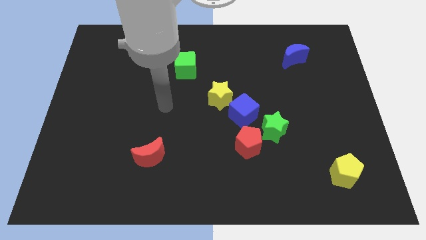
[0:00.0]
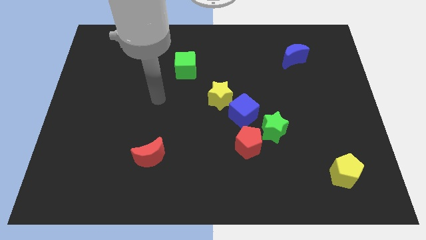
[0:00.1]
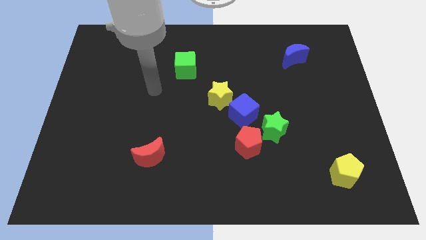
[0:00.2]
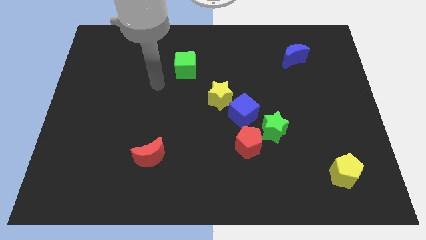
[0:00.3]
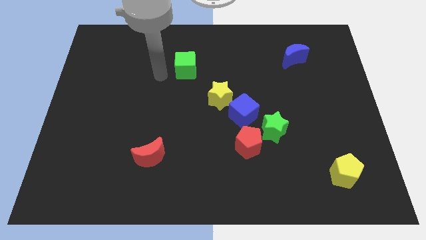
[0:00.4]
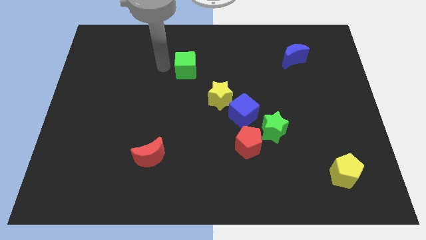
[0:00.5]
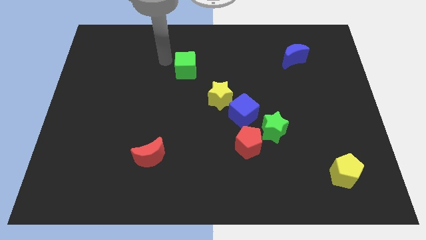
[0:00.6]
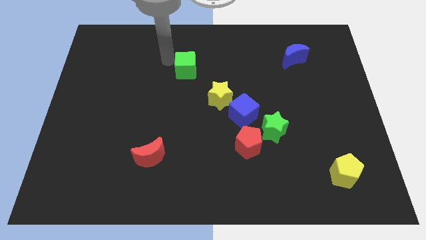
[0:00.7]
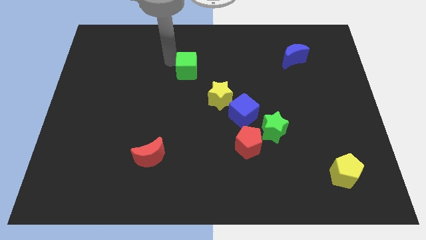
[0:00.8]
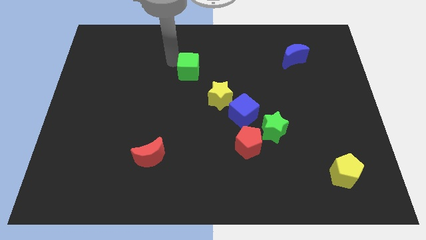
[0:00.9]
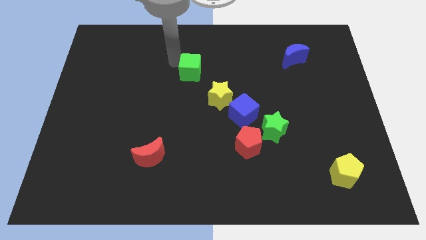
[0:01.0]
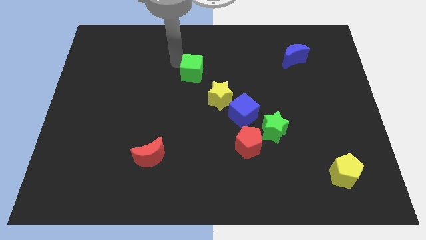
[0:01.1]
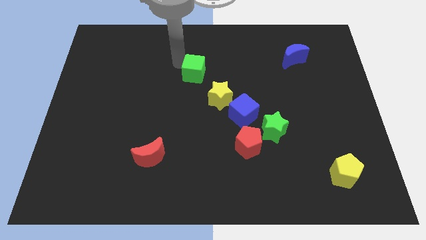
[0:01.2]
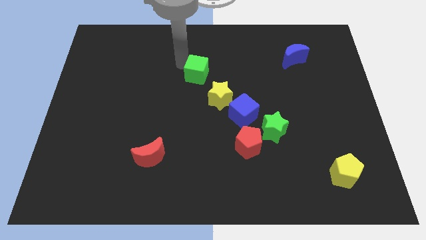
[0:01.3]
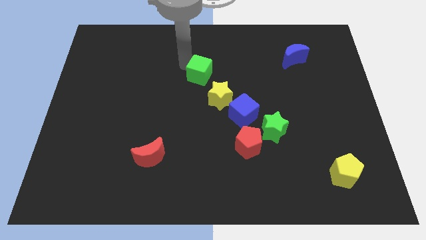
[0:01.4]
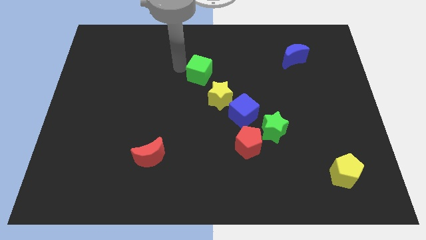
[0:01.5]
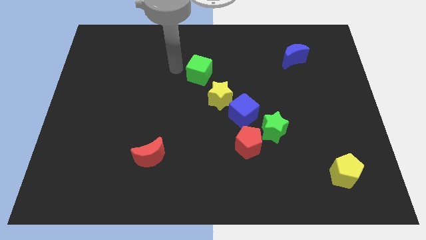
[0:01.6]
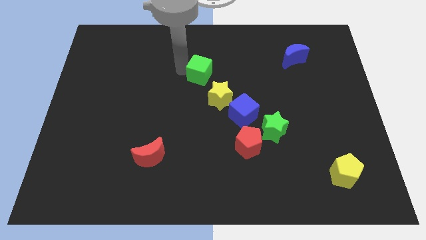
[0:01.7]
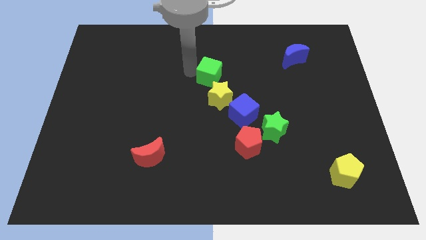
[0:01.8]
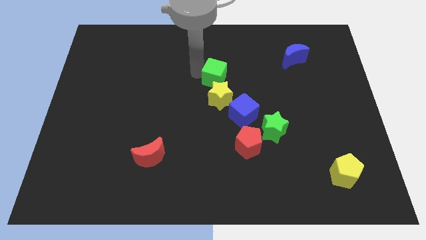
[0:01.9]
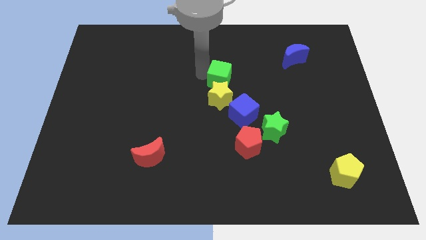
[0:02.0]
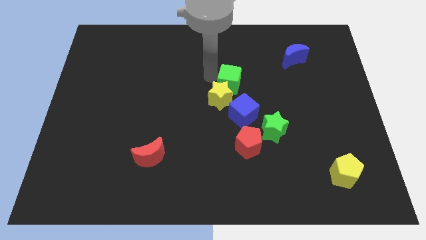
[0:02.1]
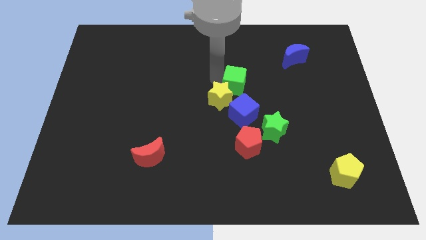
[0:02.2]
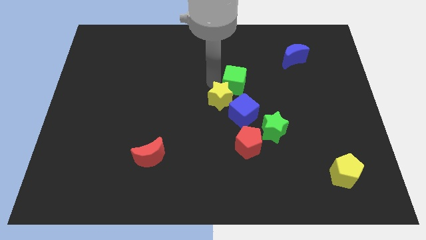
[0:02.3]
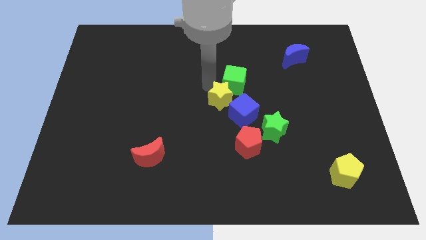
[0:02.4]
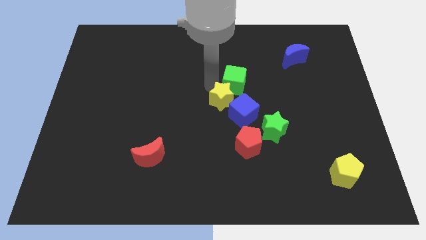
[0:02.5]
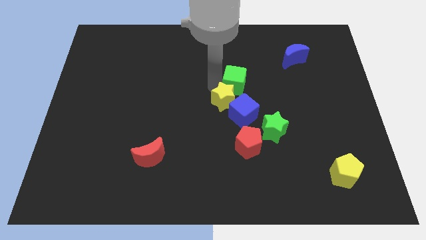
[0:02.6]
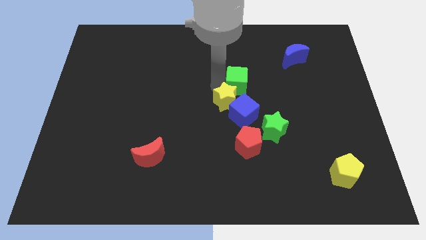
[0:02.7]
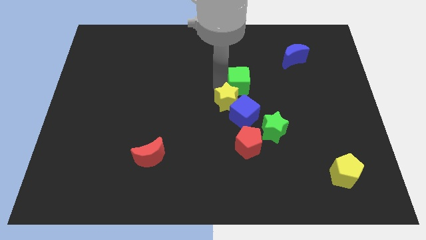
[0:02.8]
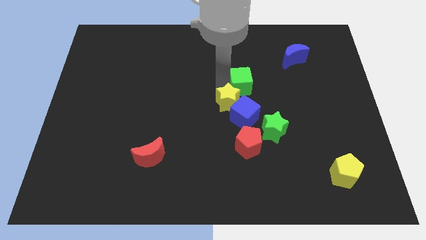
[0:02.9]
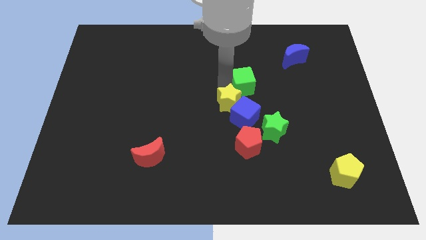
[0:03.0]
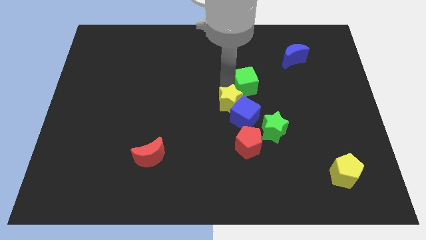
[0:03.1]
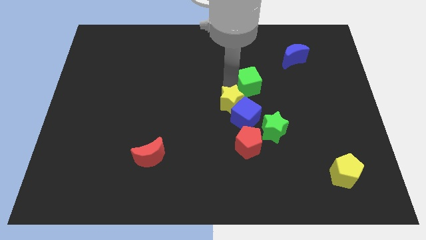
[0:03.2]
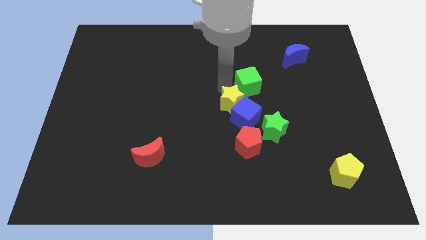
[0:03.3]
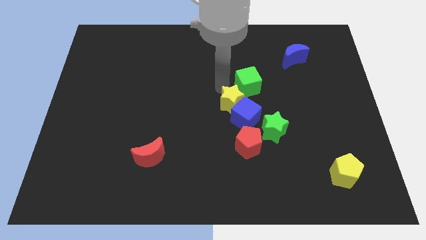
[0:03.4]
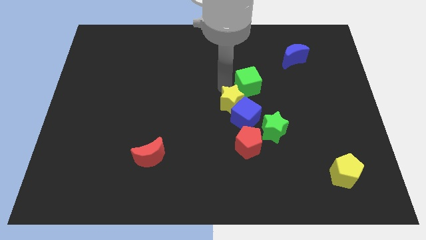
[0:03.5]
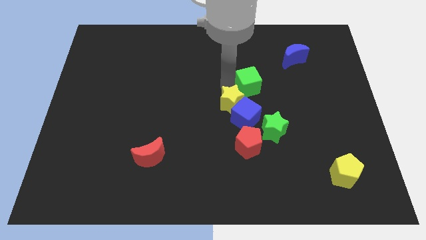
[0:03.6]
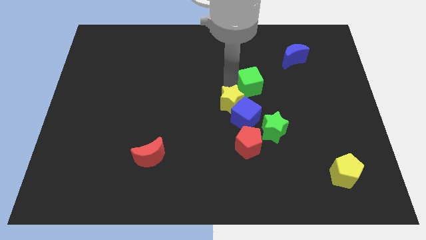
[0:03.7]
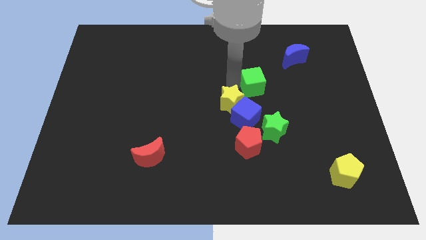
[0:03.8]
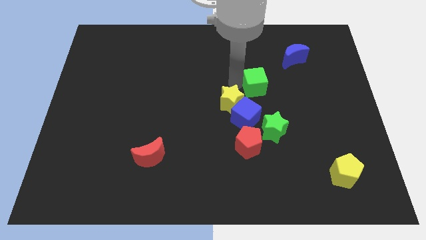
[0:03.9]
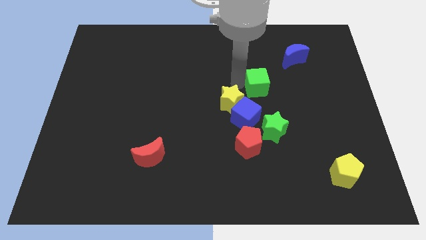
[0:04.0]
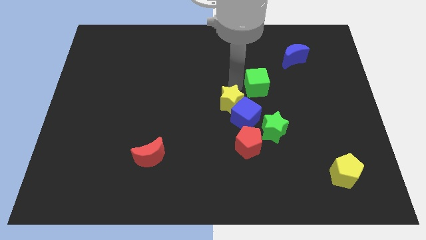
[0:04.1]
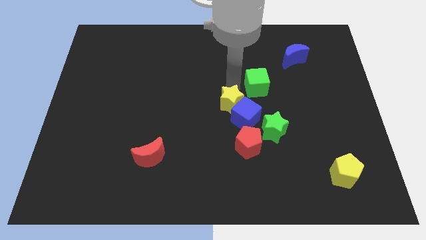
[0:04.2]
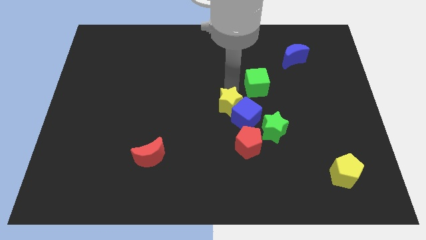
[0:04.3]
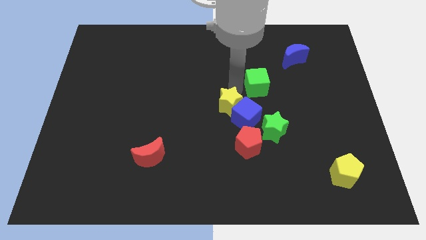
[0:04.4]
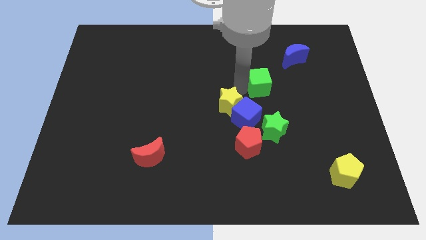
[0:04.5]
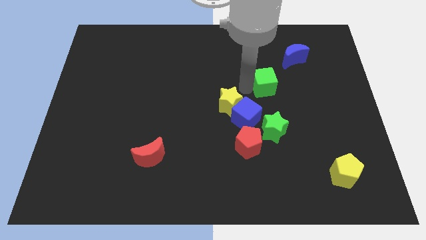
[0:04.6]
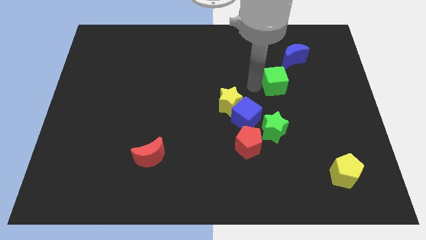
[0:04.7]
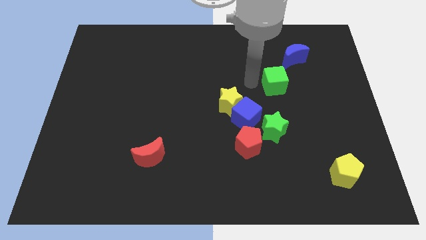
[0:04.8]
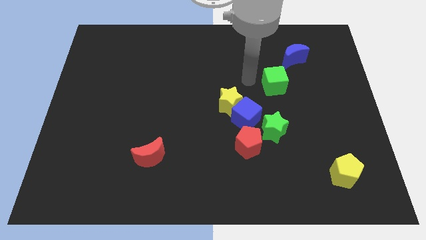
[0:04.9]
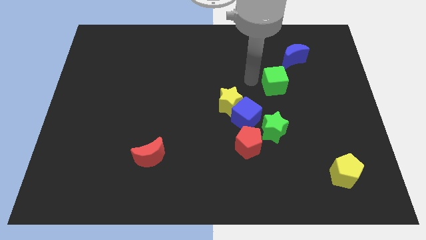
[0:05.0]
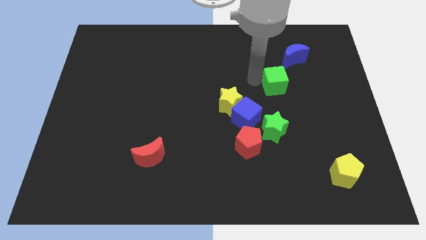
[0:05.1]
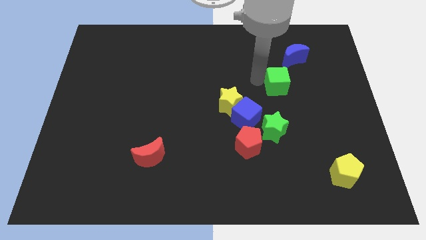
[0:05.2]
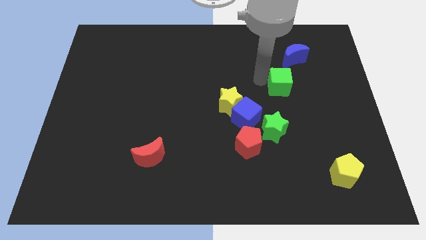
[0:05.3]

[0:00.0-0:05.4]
move the green cube to the bottom of the blue moon

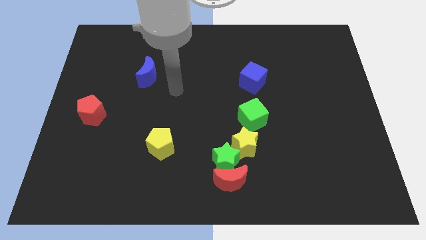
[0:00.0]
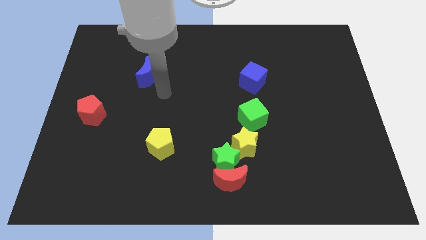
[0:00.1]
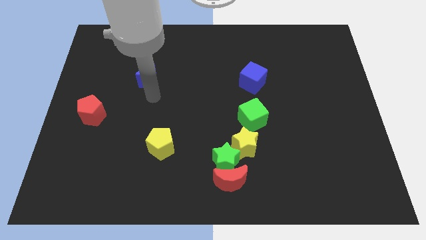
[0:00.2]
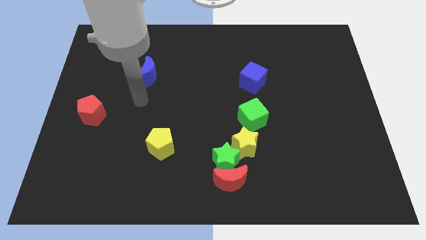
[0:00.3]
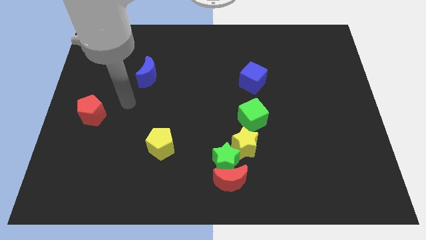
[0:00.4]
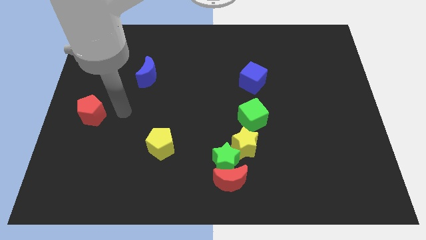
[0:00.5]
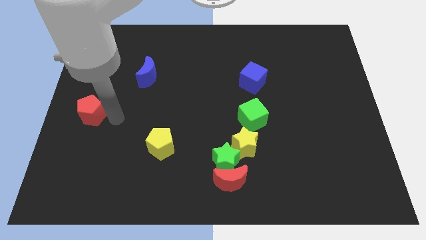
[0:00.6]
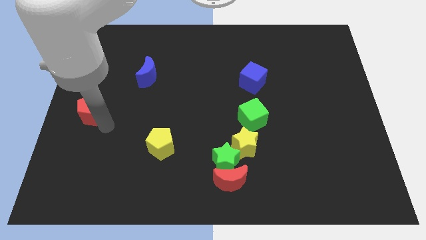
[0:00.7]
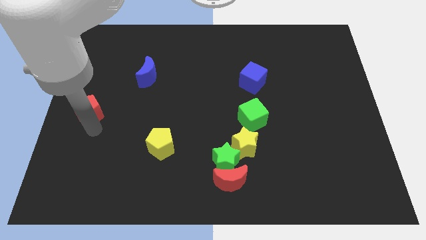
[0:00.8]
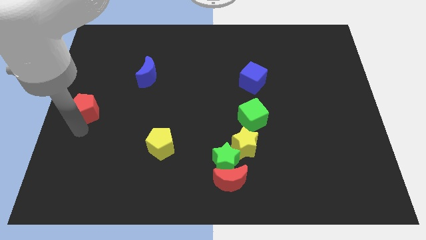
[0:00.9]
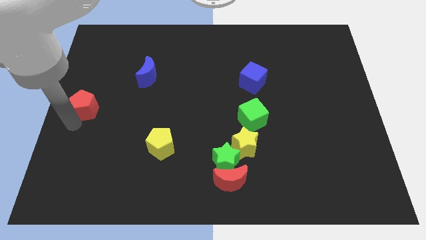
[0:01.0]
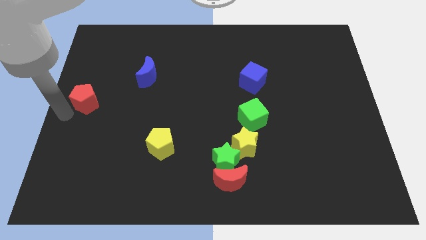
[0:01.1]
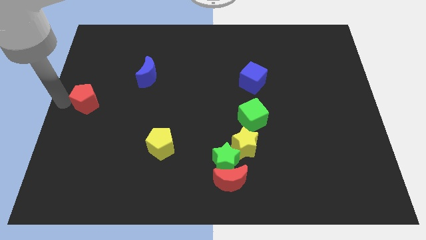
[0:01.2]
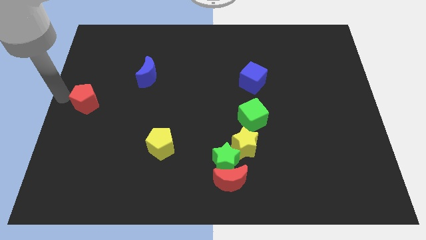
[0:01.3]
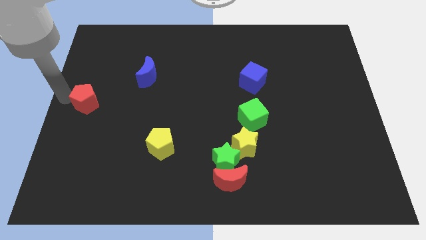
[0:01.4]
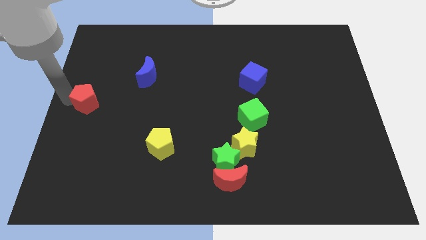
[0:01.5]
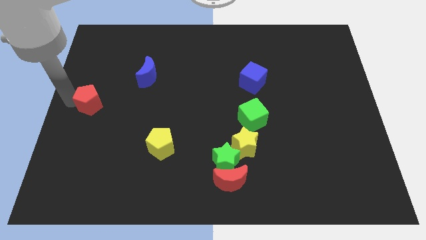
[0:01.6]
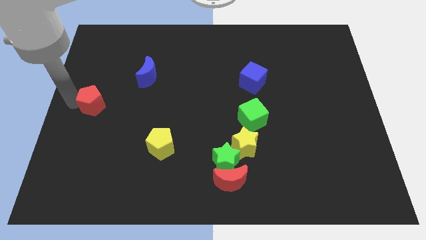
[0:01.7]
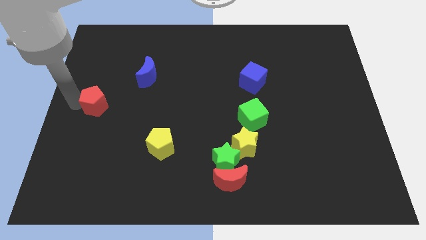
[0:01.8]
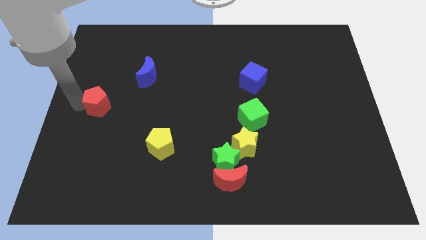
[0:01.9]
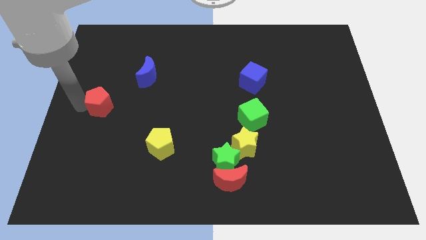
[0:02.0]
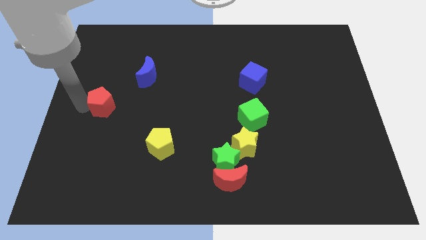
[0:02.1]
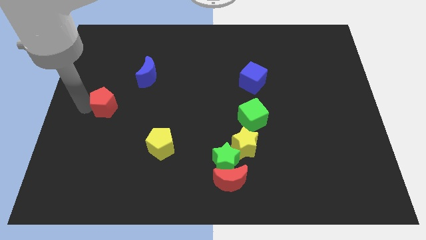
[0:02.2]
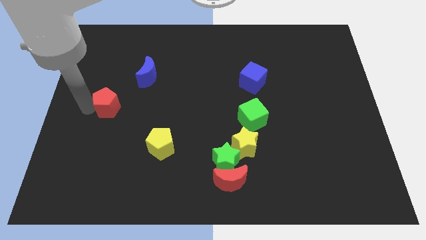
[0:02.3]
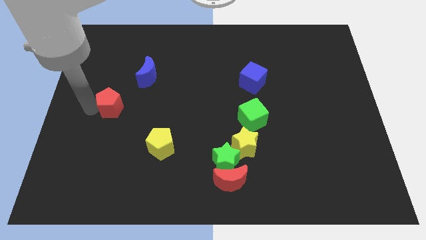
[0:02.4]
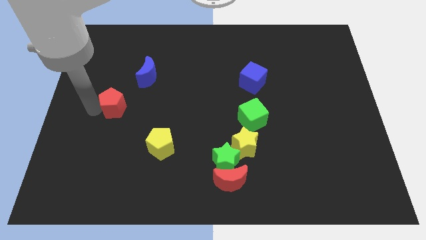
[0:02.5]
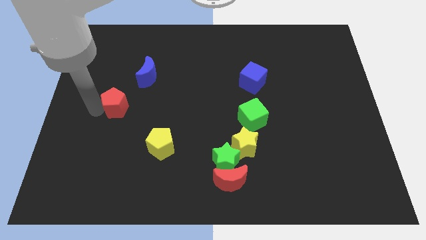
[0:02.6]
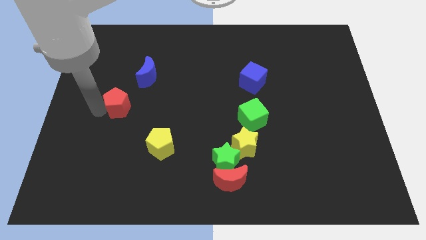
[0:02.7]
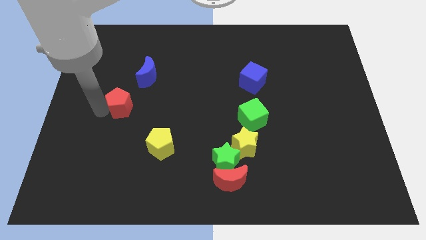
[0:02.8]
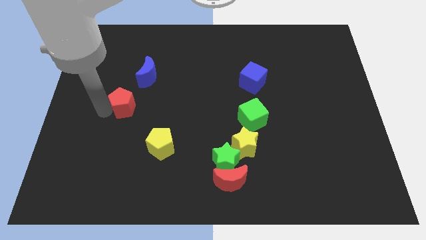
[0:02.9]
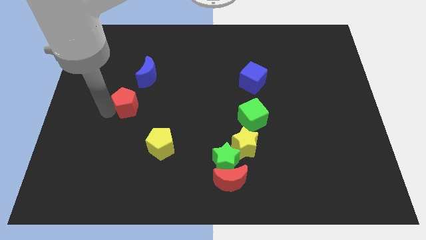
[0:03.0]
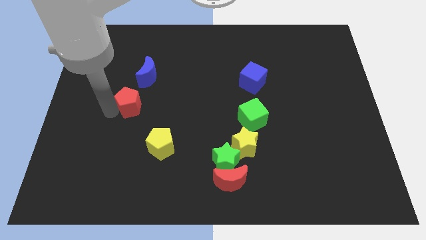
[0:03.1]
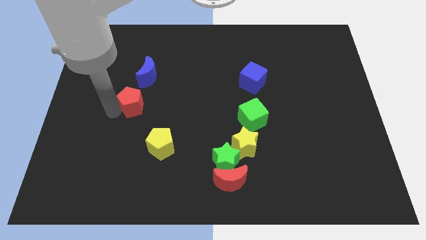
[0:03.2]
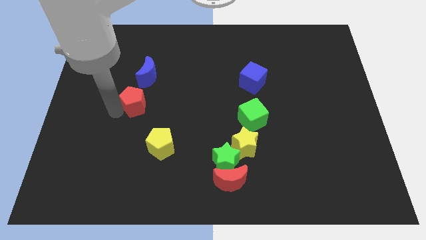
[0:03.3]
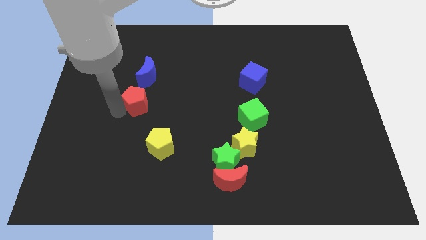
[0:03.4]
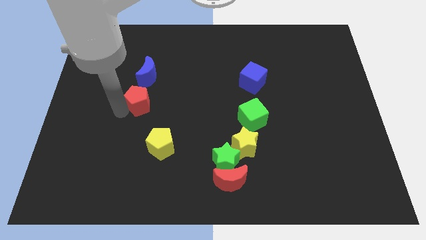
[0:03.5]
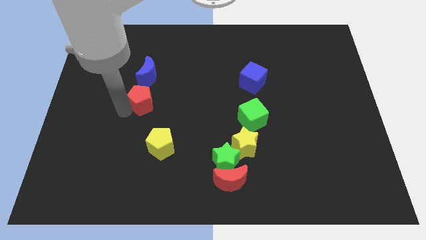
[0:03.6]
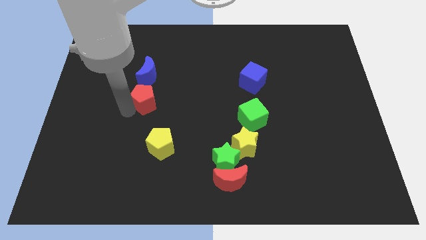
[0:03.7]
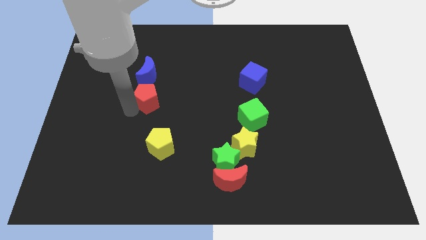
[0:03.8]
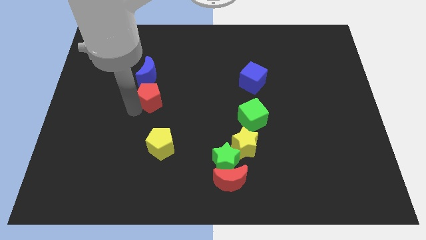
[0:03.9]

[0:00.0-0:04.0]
put the red pentagon diagonally down and to the right of the blue moon
